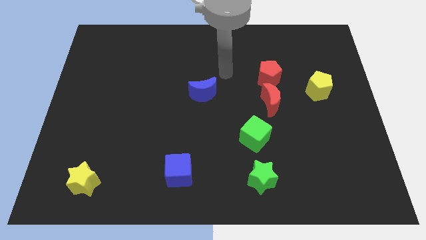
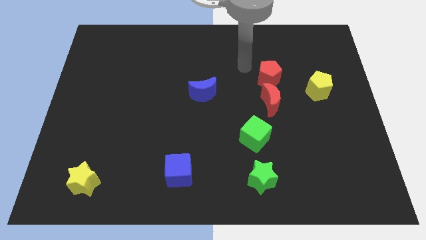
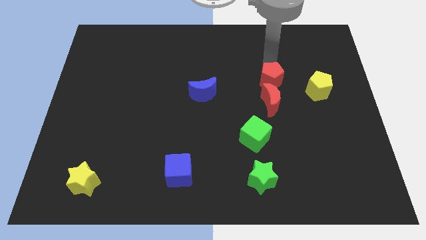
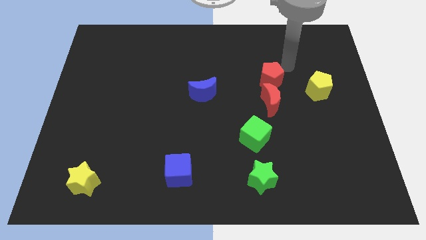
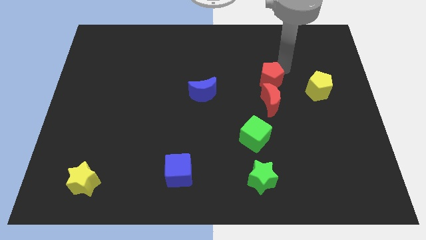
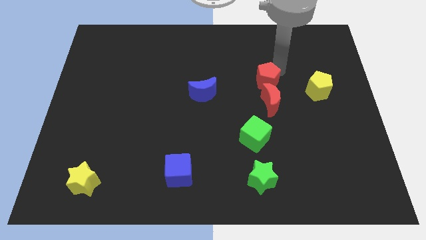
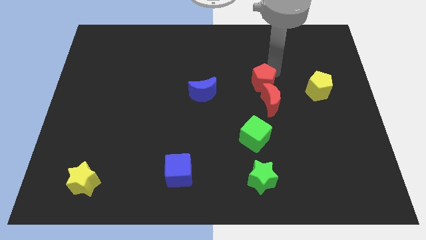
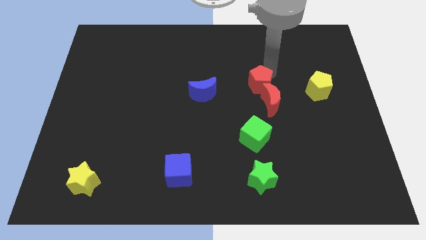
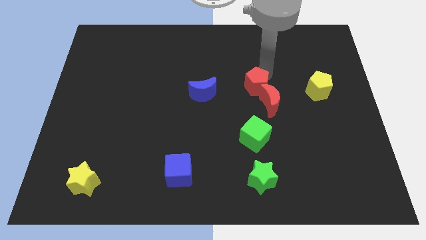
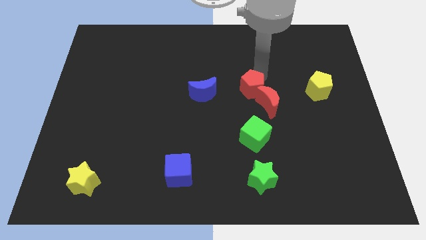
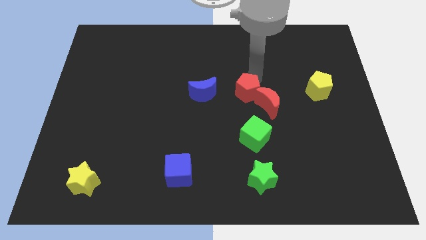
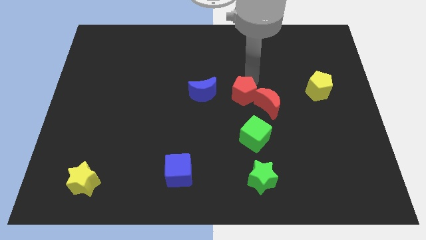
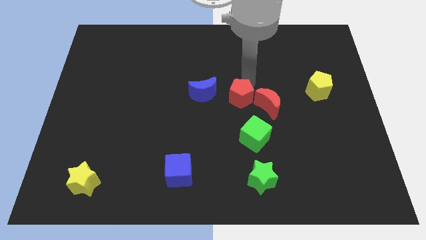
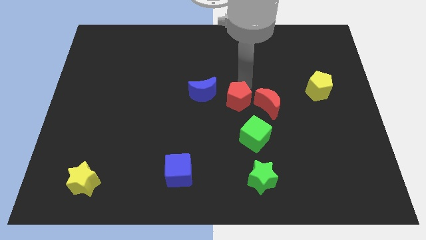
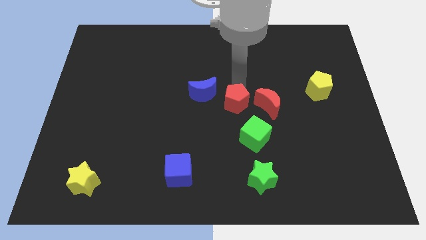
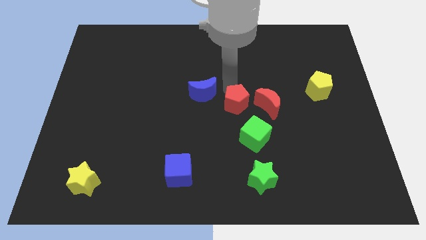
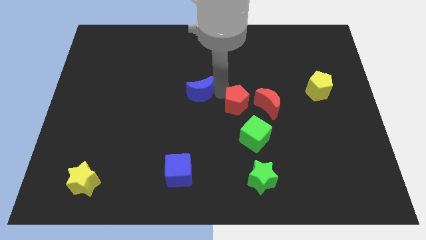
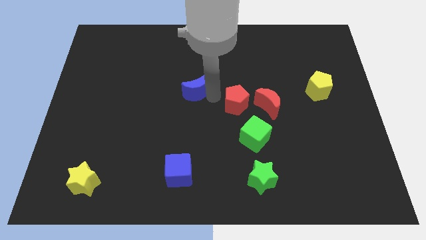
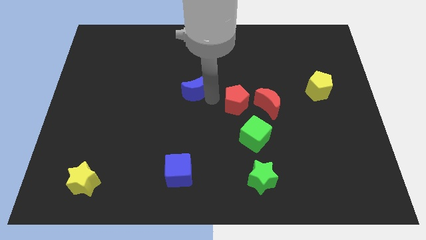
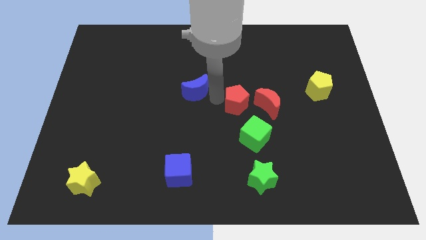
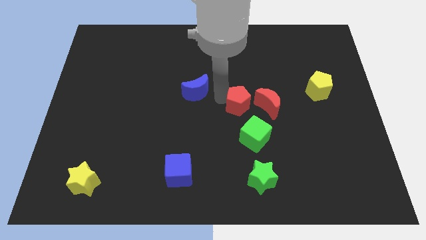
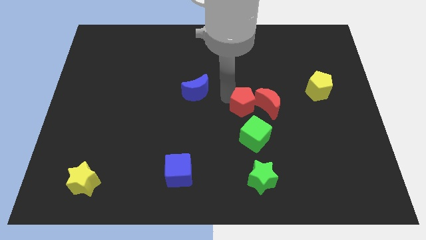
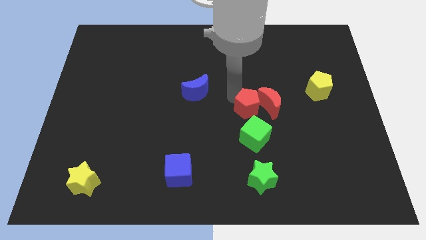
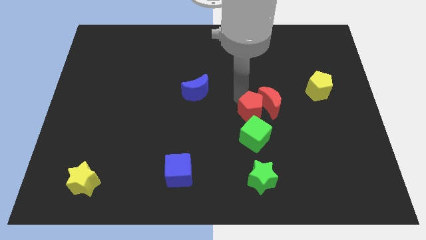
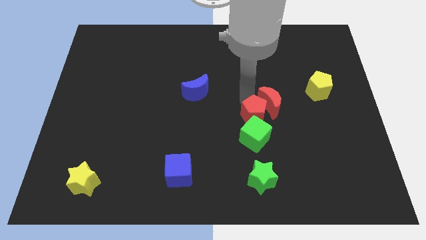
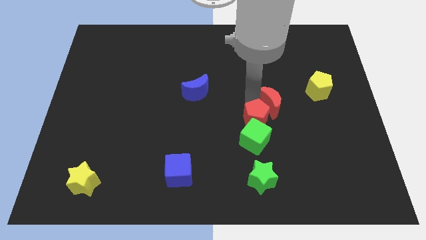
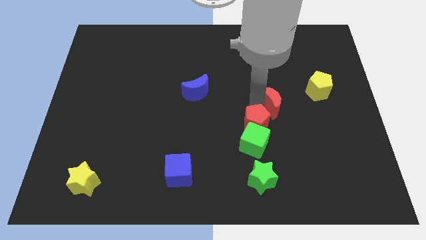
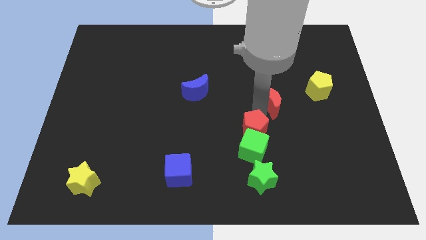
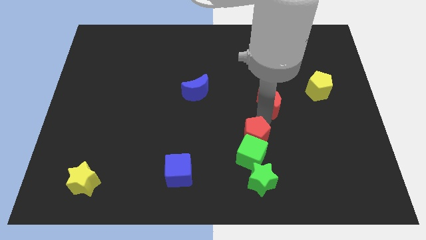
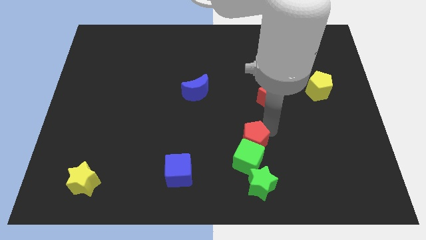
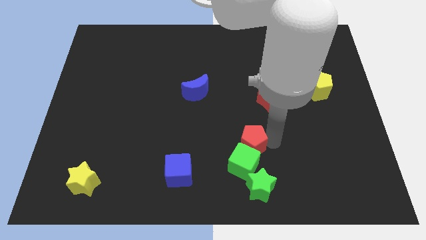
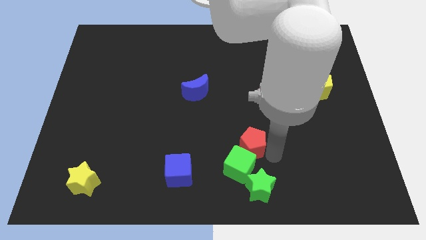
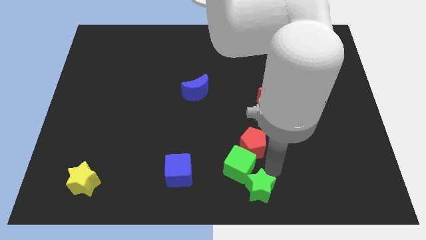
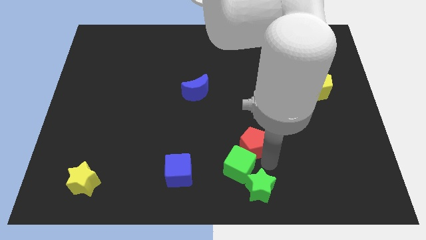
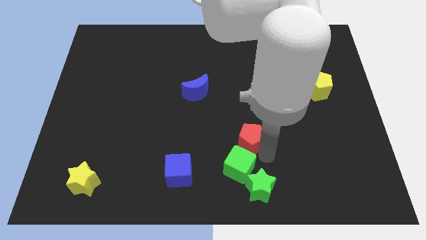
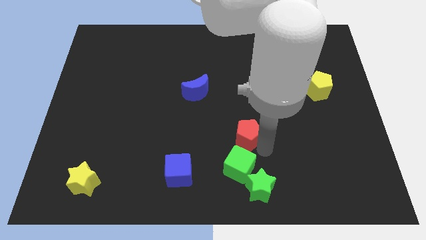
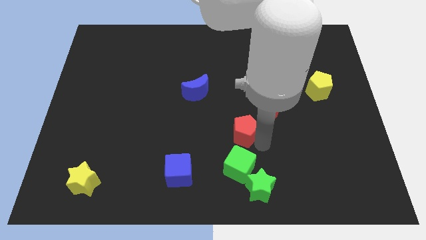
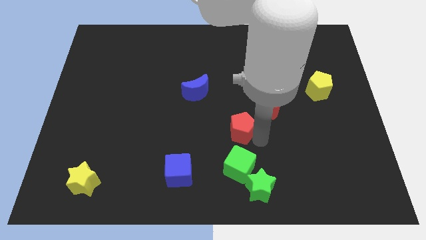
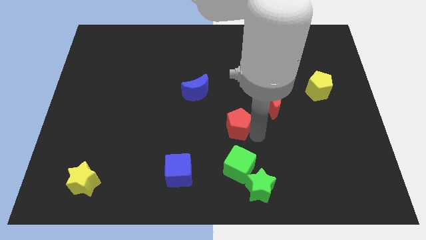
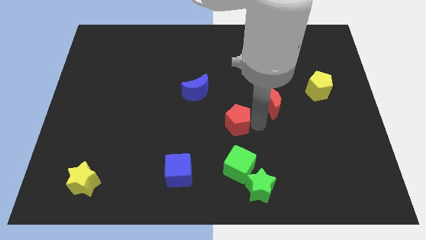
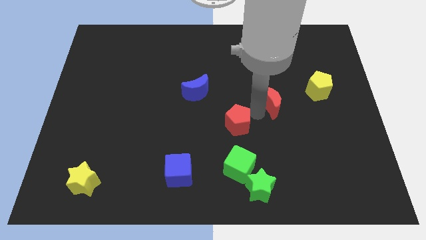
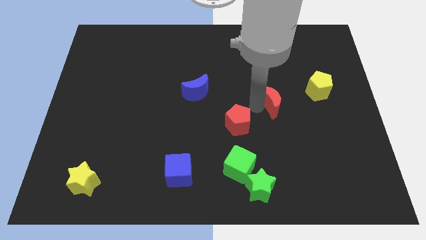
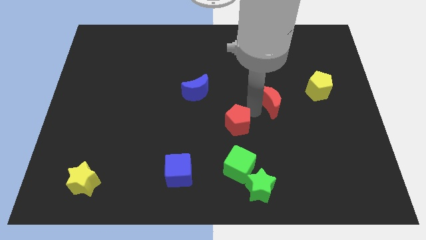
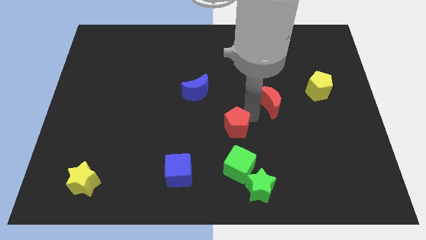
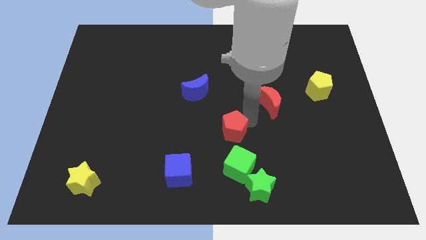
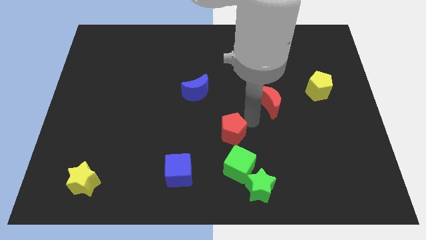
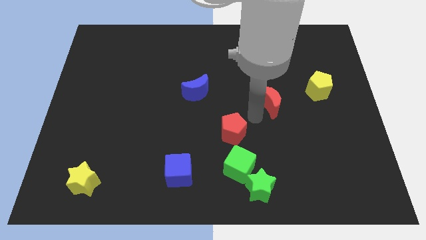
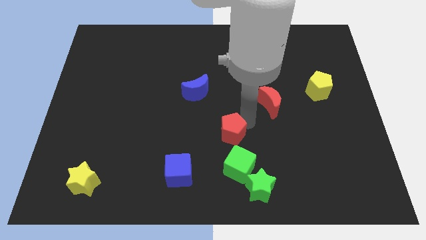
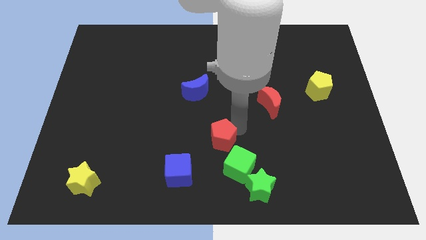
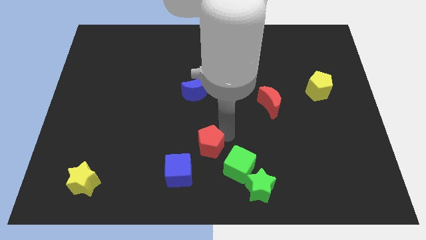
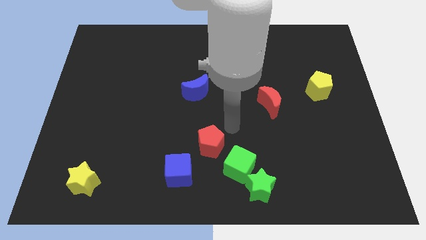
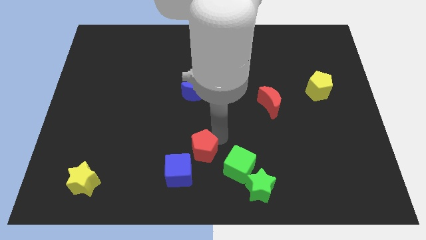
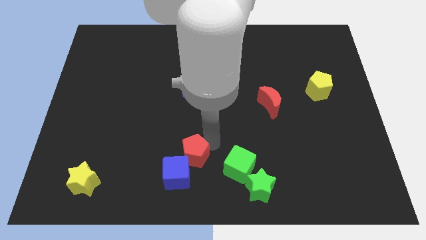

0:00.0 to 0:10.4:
put the red pentagon close to the blue cube

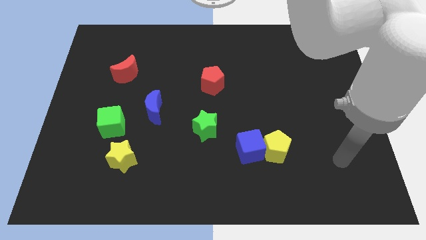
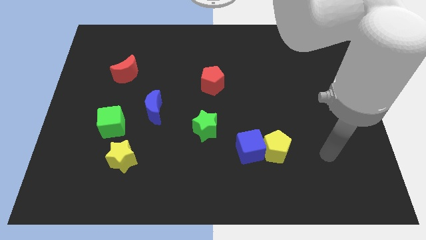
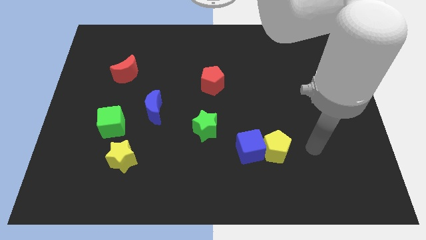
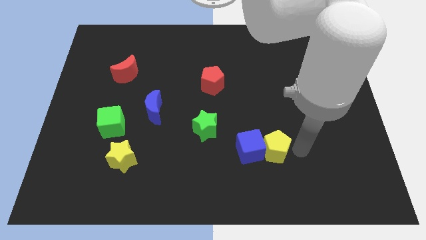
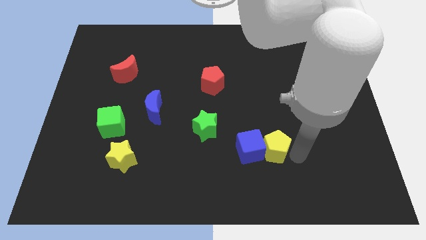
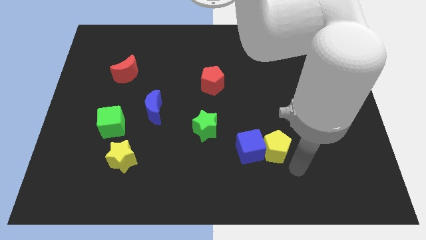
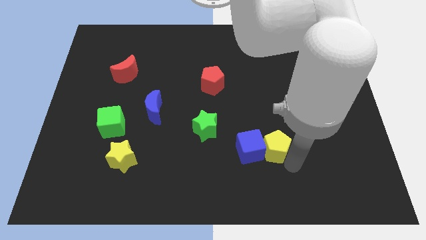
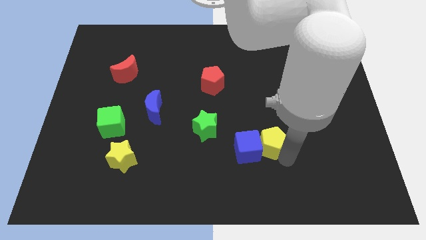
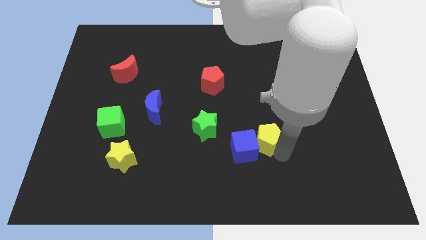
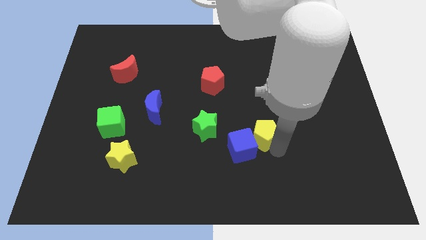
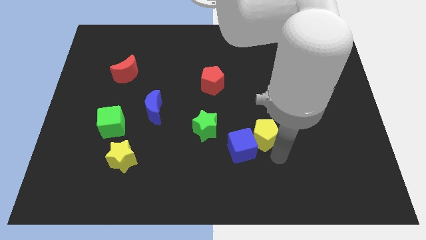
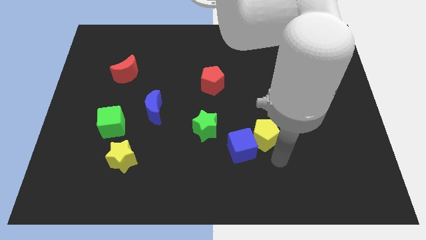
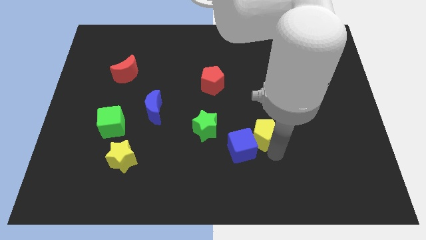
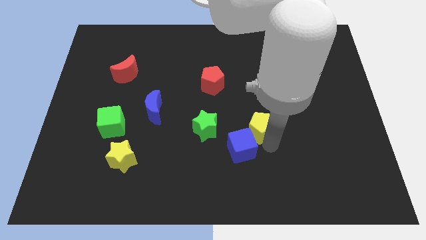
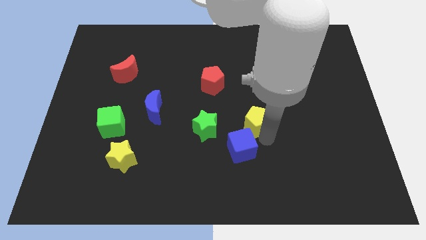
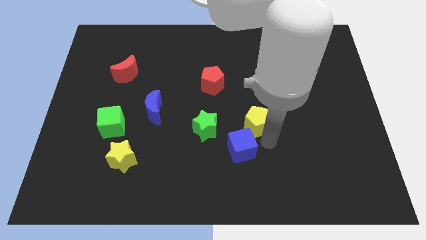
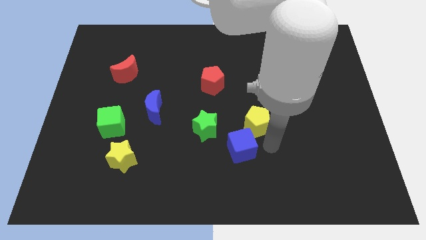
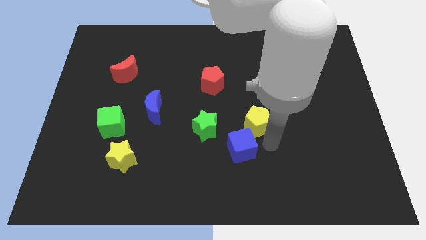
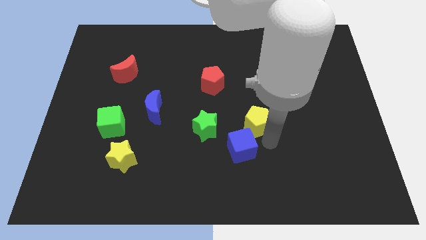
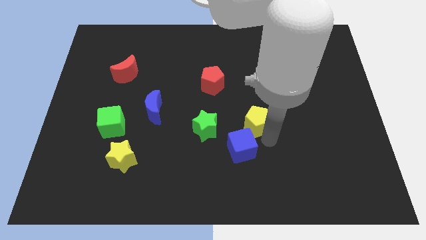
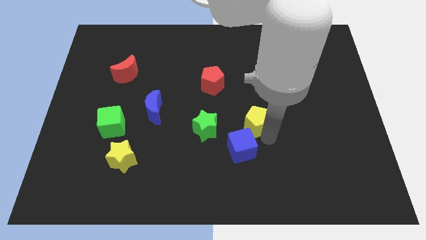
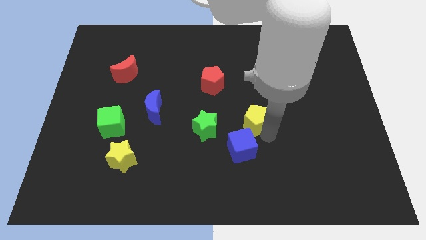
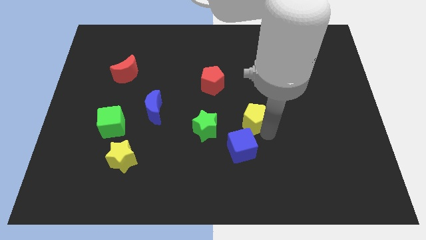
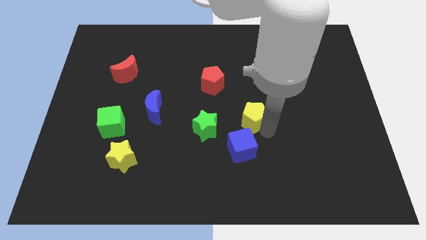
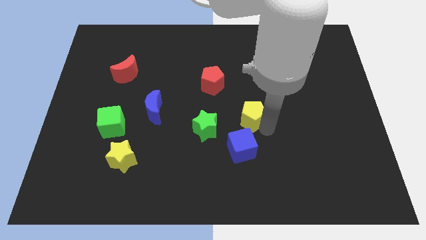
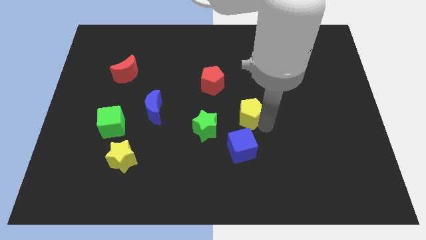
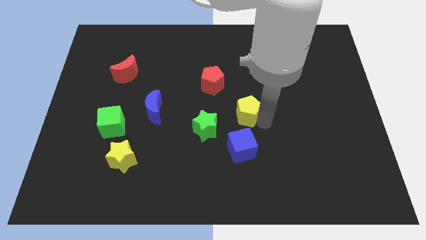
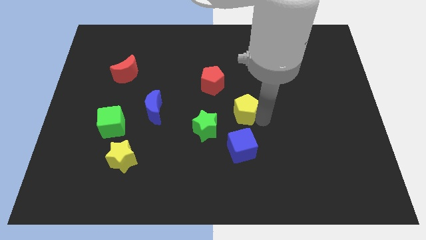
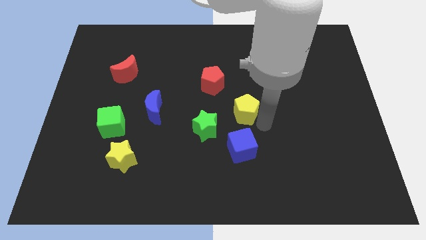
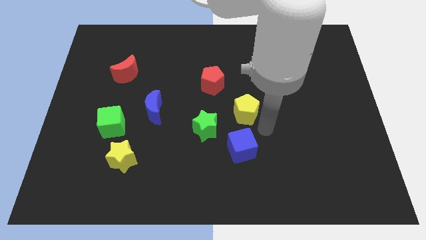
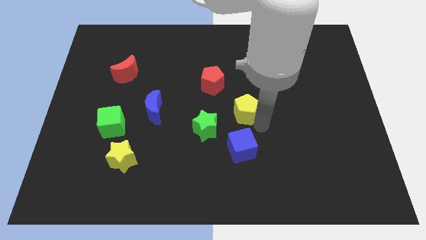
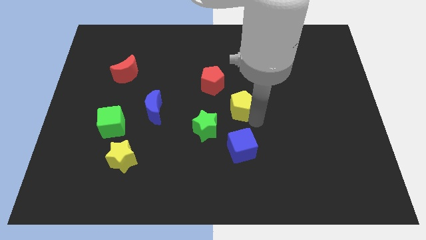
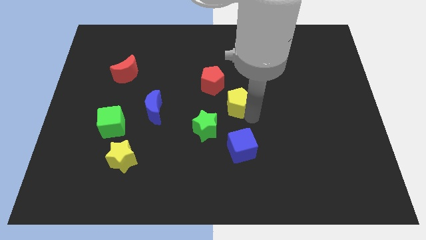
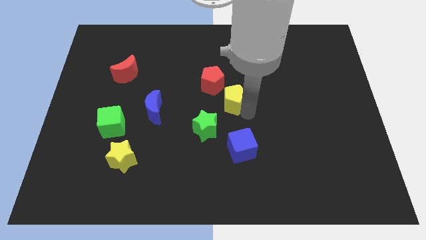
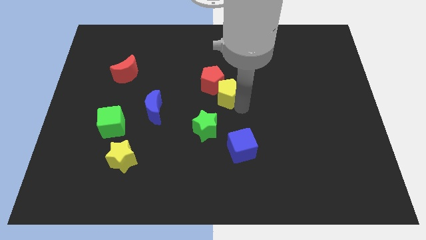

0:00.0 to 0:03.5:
move the yellow pentagon next to the red pentagon
